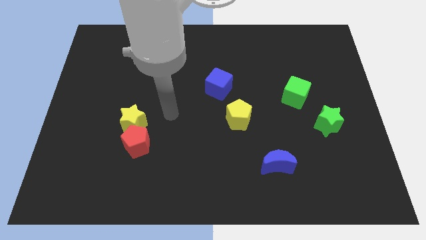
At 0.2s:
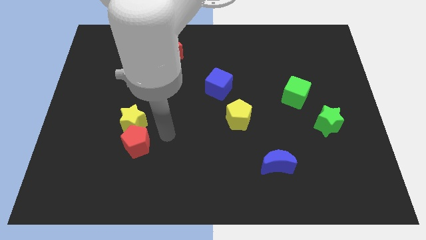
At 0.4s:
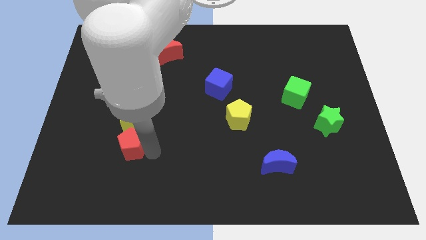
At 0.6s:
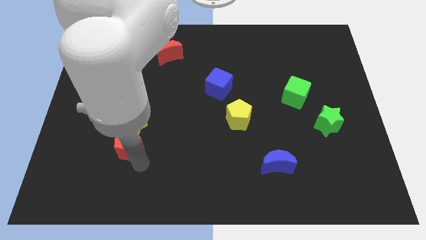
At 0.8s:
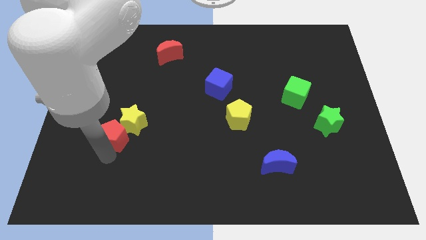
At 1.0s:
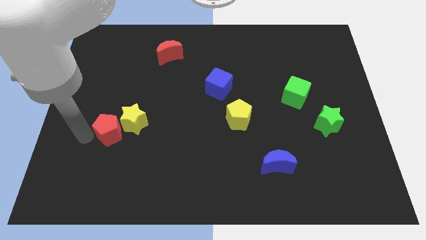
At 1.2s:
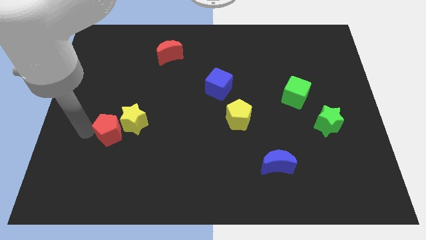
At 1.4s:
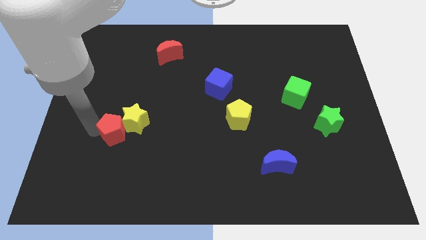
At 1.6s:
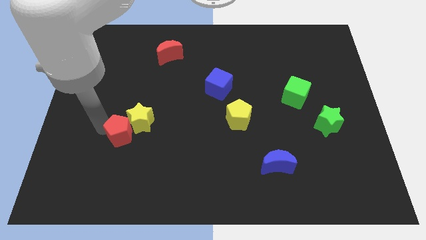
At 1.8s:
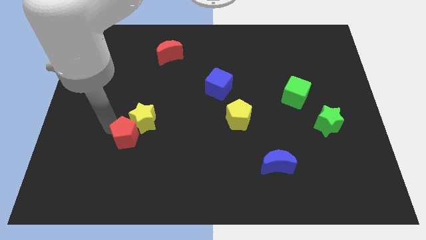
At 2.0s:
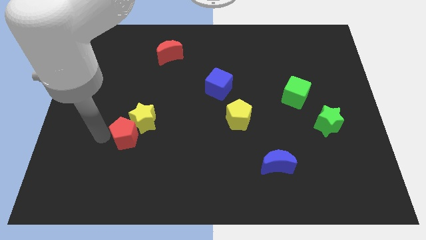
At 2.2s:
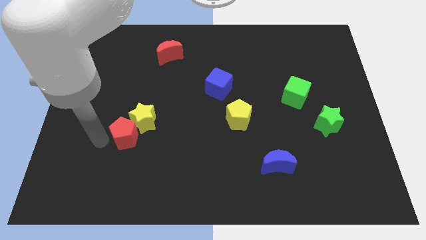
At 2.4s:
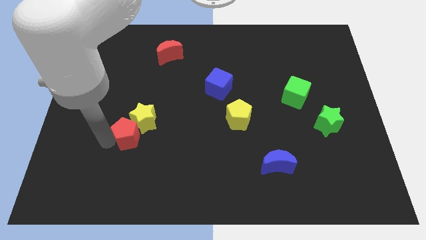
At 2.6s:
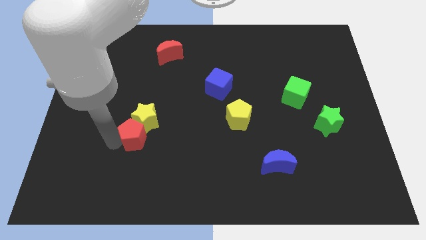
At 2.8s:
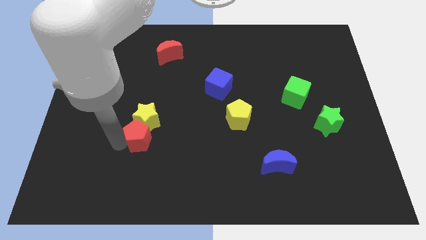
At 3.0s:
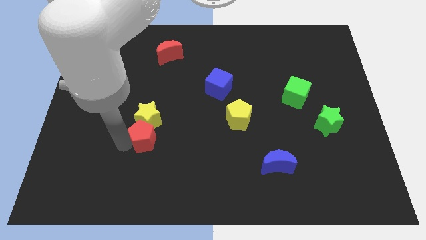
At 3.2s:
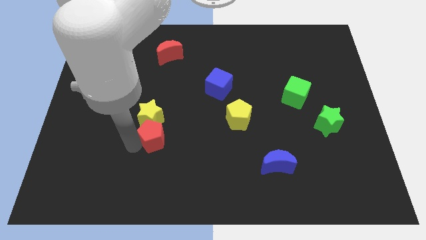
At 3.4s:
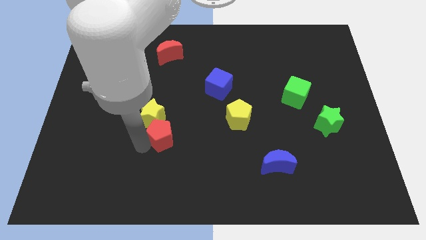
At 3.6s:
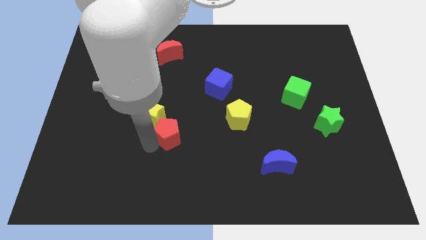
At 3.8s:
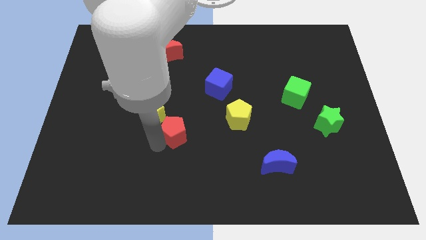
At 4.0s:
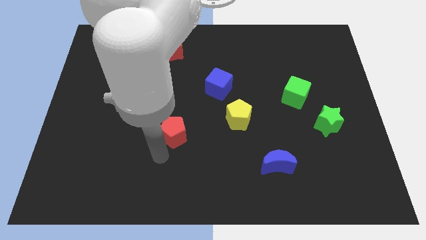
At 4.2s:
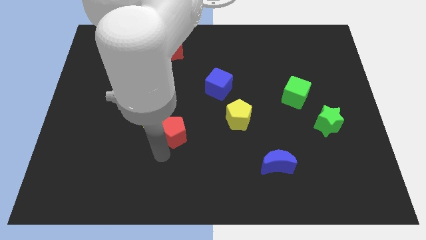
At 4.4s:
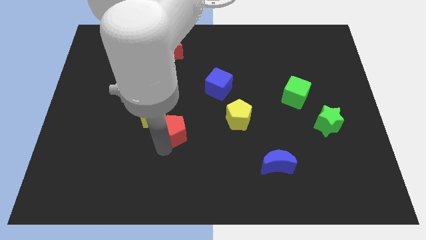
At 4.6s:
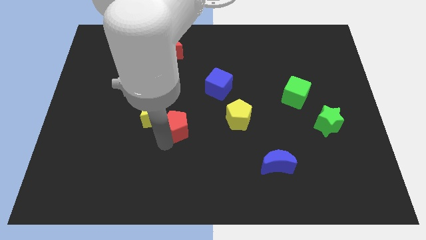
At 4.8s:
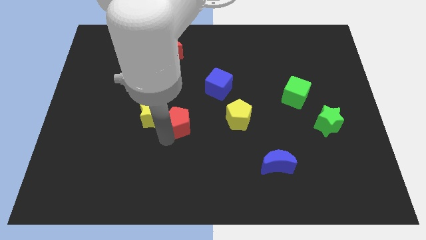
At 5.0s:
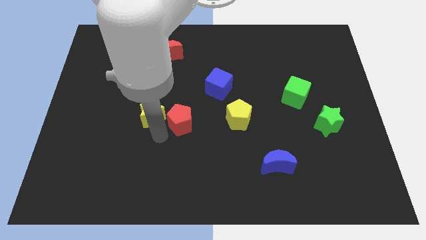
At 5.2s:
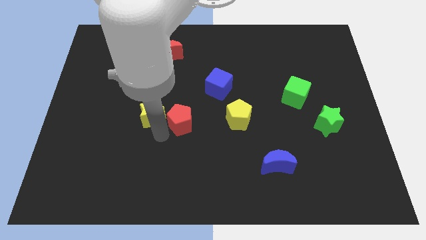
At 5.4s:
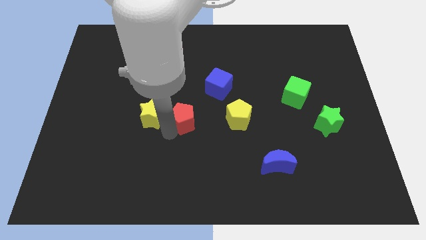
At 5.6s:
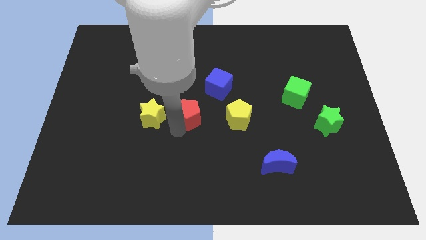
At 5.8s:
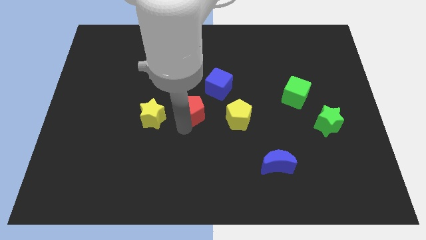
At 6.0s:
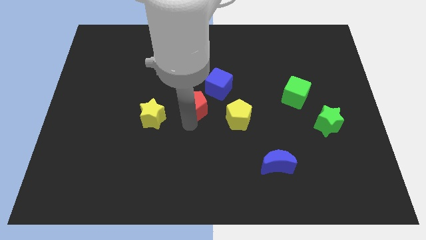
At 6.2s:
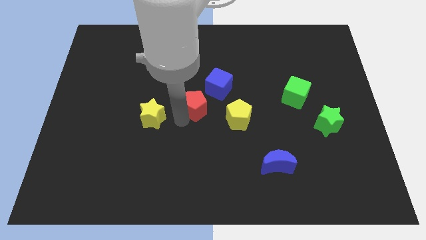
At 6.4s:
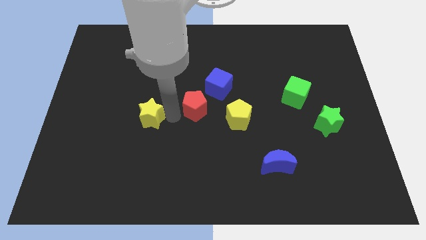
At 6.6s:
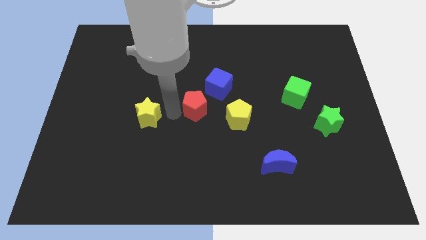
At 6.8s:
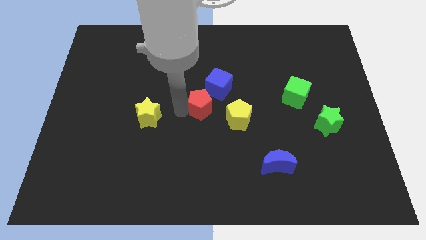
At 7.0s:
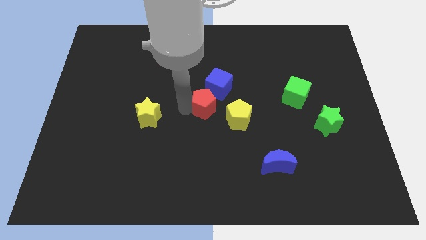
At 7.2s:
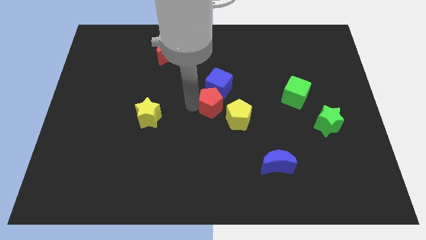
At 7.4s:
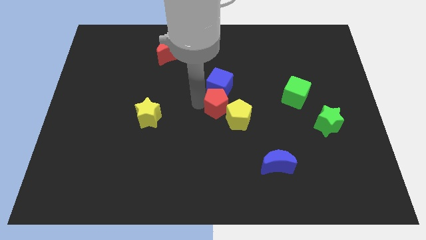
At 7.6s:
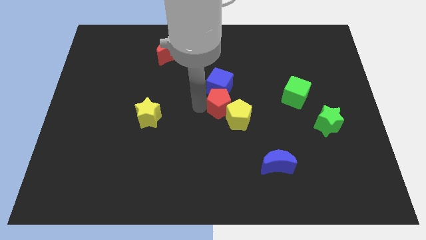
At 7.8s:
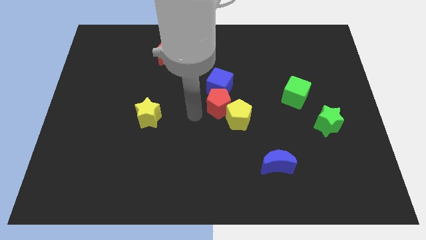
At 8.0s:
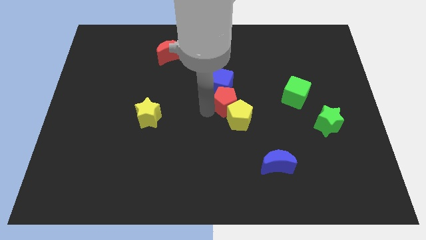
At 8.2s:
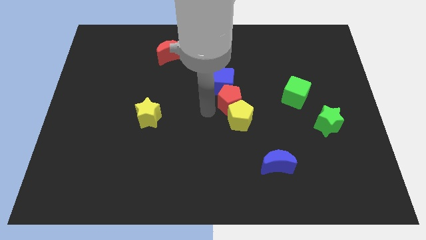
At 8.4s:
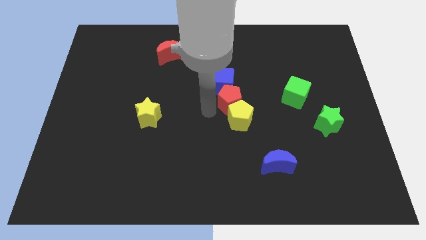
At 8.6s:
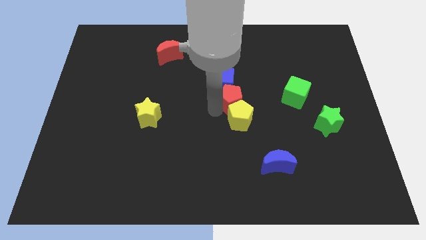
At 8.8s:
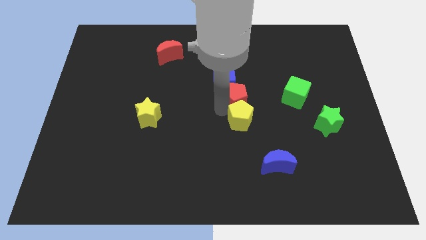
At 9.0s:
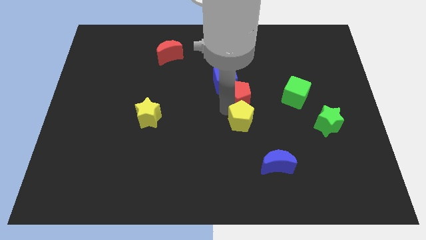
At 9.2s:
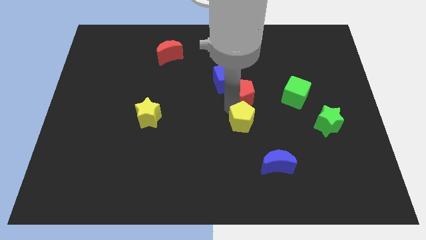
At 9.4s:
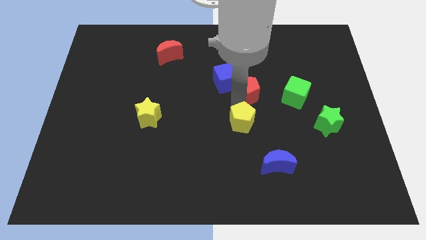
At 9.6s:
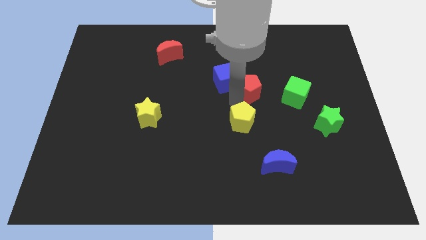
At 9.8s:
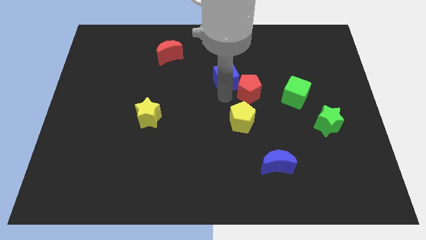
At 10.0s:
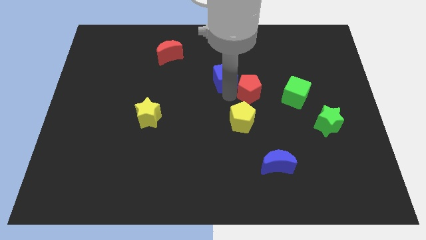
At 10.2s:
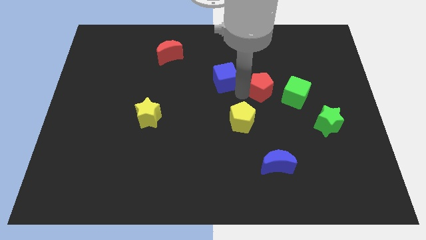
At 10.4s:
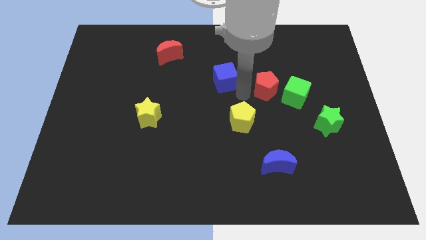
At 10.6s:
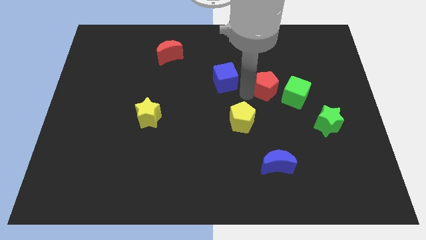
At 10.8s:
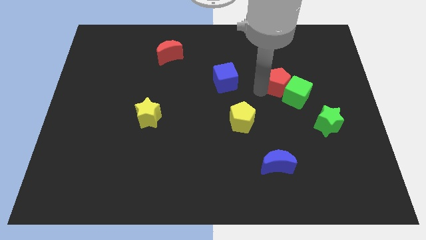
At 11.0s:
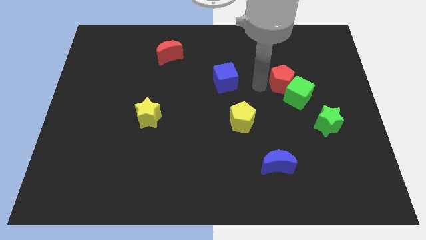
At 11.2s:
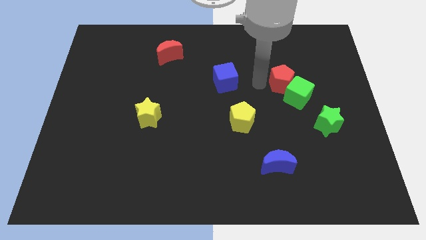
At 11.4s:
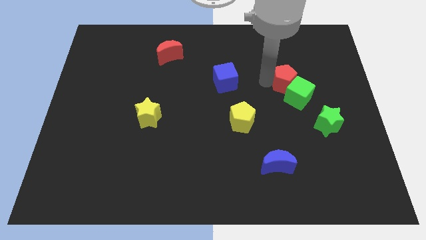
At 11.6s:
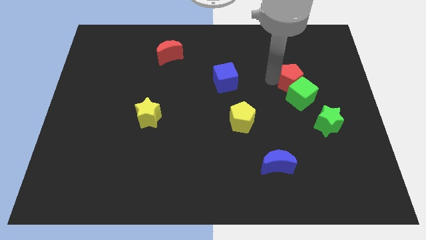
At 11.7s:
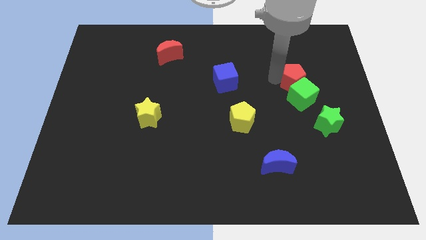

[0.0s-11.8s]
push the red pentagon to the top right of the green cube

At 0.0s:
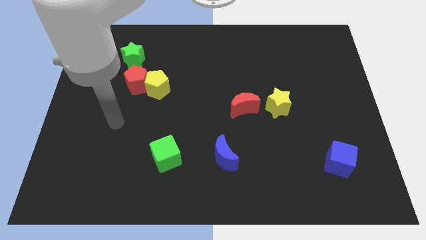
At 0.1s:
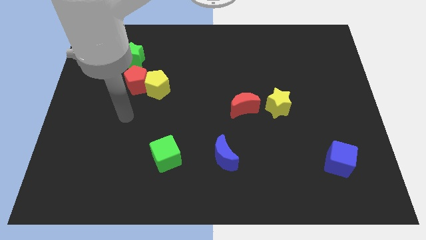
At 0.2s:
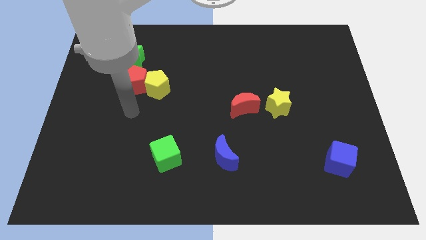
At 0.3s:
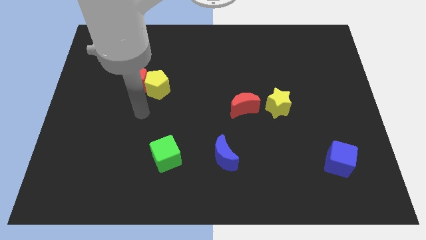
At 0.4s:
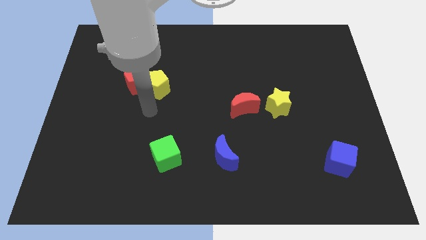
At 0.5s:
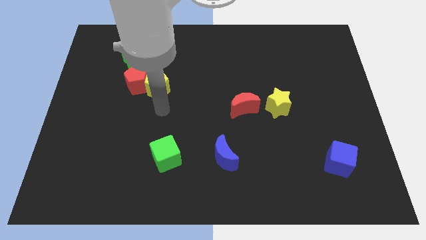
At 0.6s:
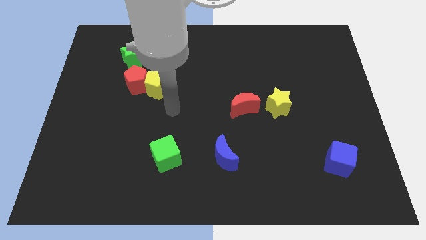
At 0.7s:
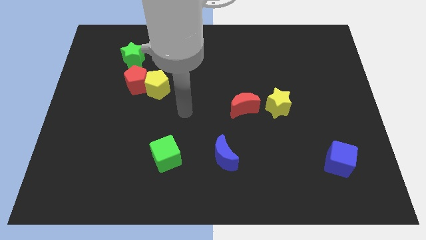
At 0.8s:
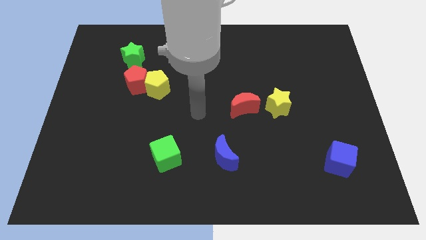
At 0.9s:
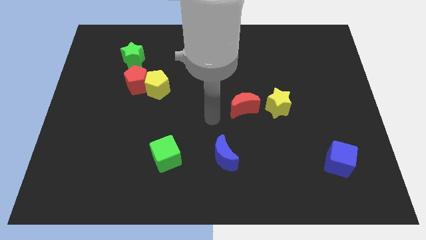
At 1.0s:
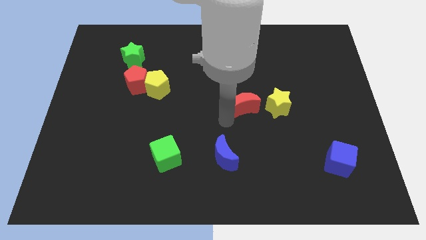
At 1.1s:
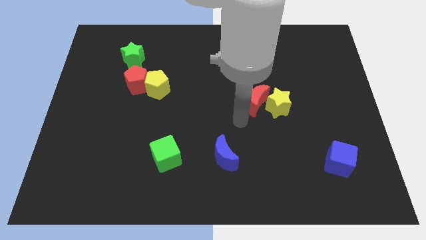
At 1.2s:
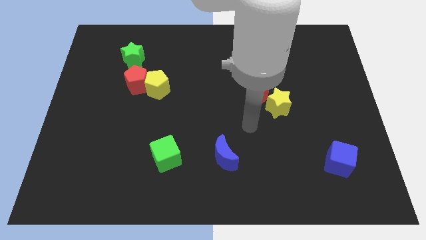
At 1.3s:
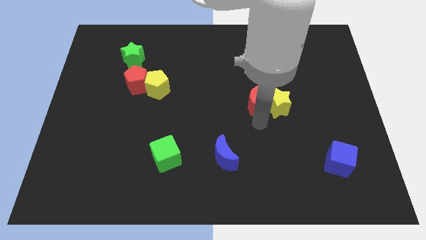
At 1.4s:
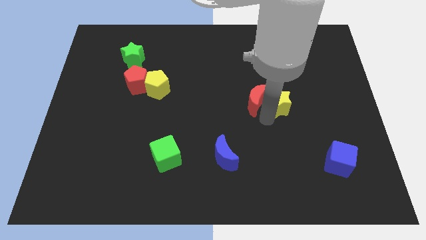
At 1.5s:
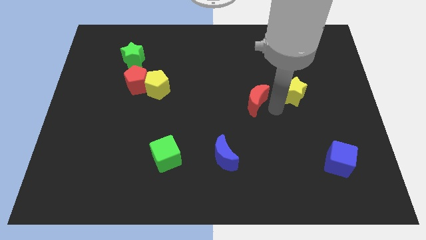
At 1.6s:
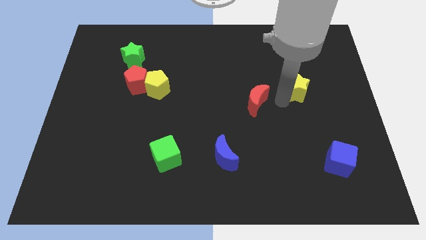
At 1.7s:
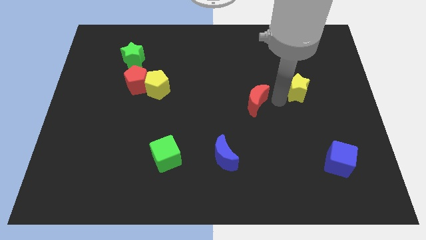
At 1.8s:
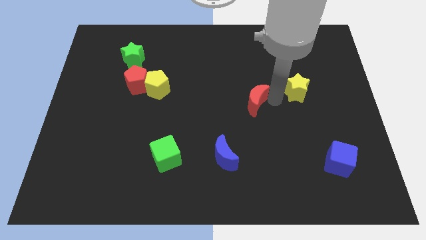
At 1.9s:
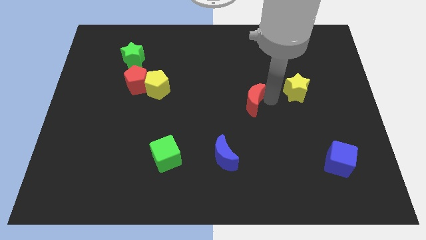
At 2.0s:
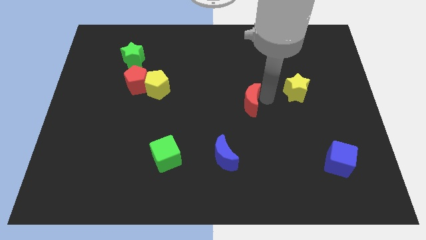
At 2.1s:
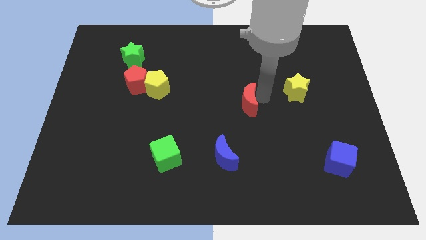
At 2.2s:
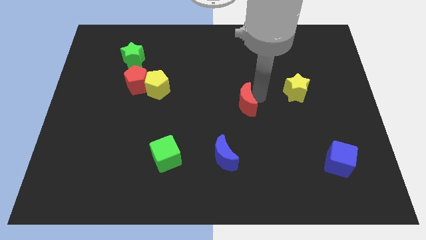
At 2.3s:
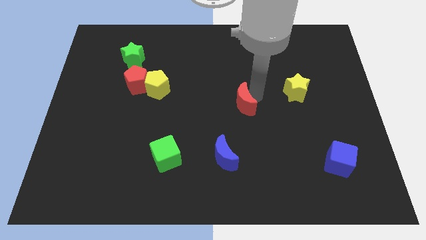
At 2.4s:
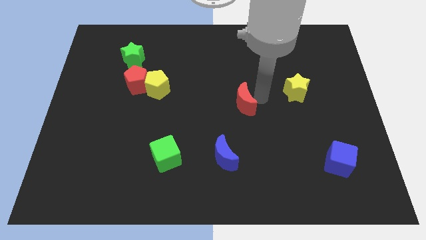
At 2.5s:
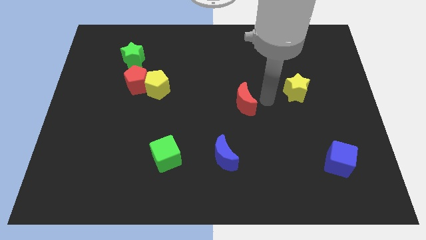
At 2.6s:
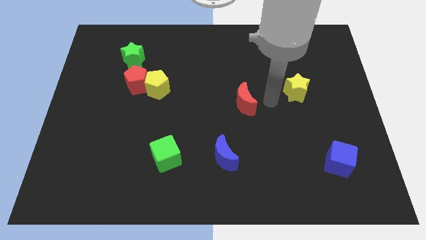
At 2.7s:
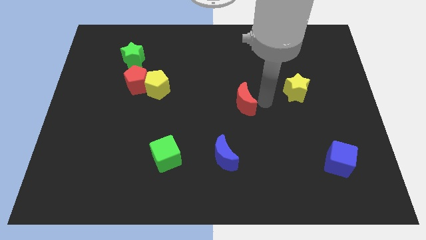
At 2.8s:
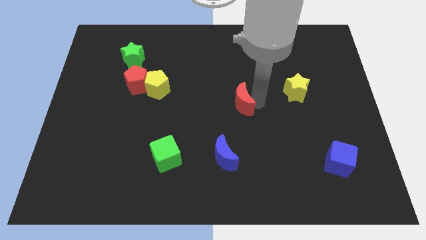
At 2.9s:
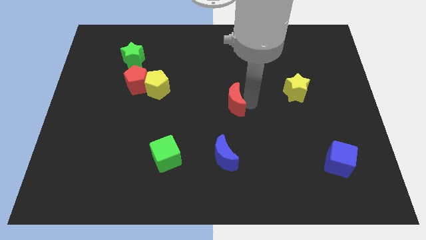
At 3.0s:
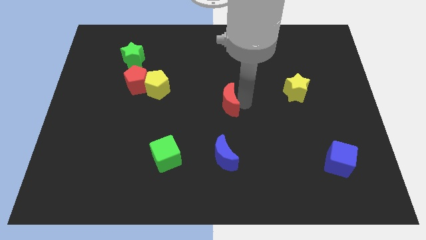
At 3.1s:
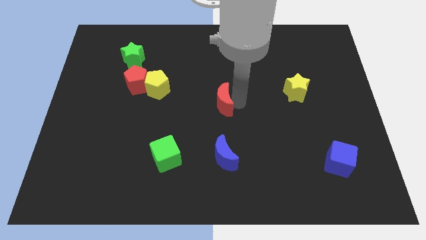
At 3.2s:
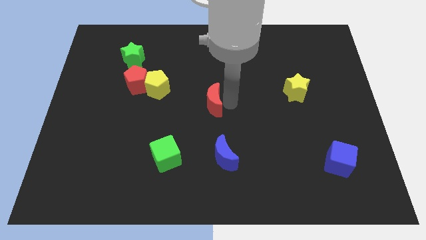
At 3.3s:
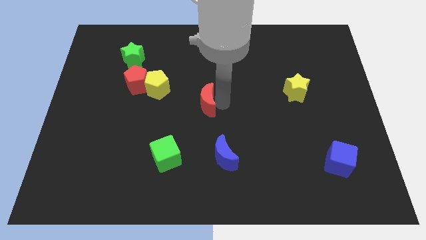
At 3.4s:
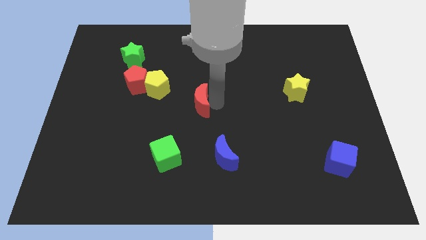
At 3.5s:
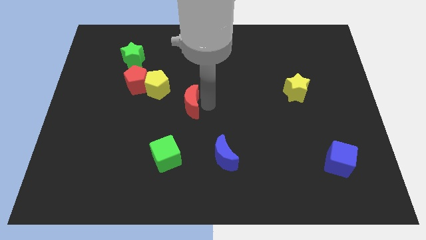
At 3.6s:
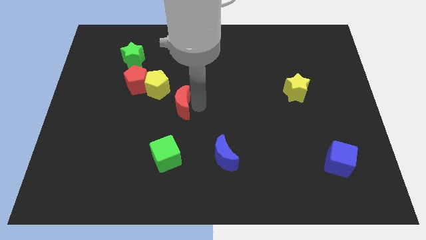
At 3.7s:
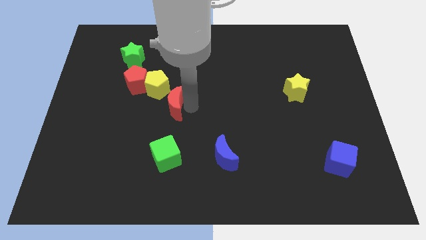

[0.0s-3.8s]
put the red moon to the bottom right of the red pentagon
